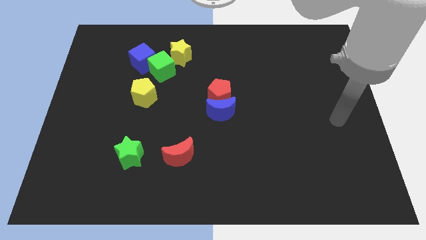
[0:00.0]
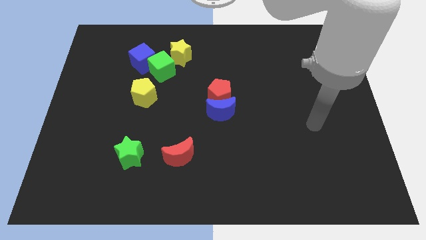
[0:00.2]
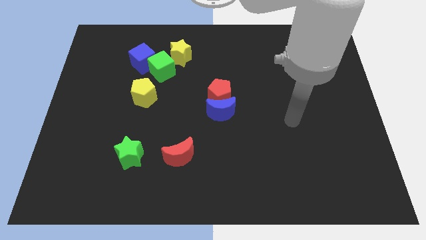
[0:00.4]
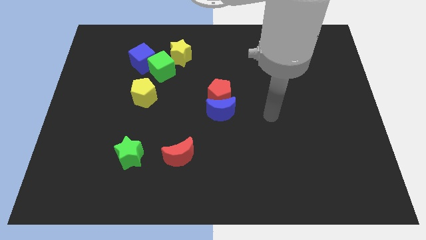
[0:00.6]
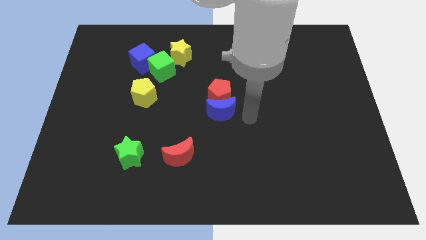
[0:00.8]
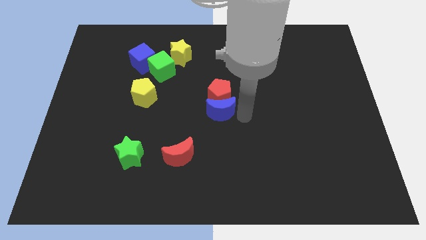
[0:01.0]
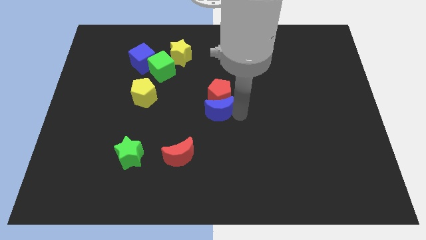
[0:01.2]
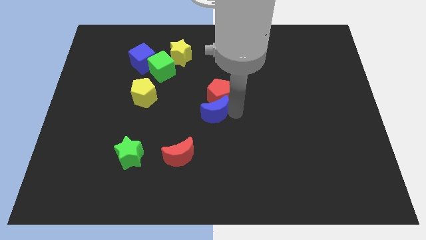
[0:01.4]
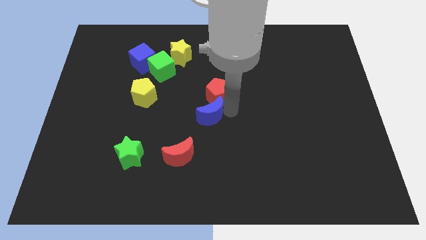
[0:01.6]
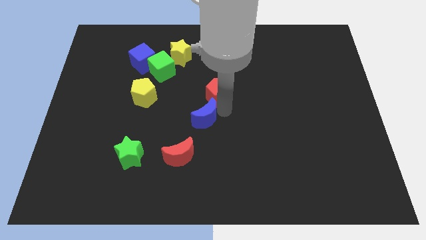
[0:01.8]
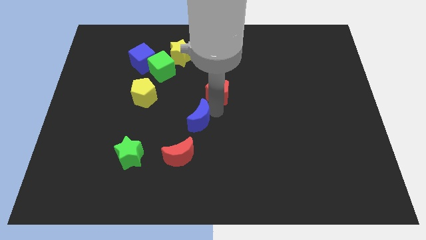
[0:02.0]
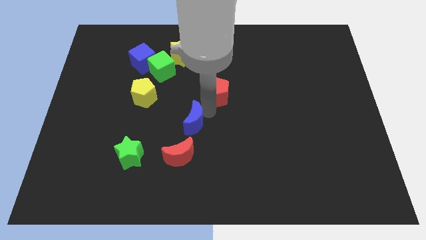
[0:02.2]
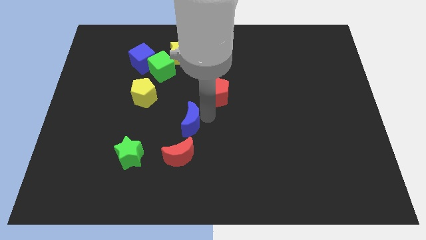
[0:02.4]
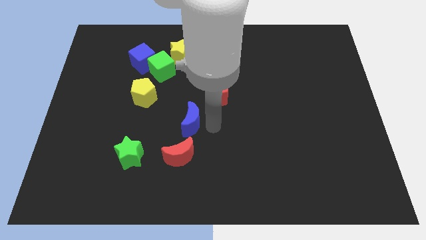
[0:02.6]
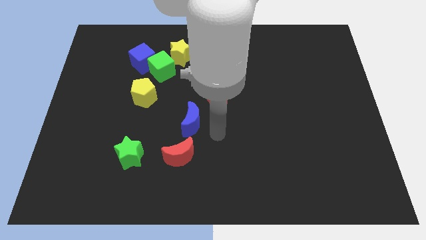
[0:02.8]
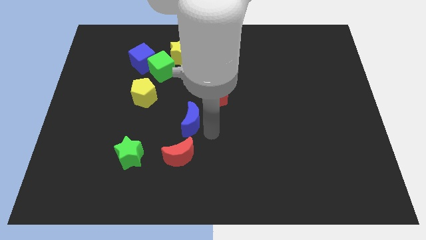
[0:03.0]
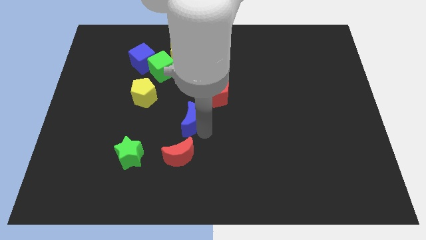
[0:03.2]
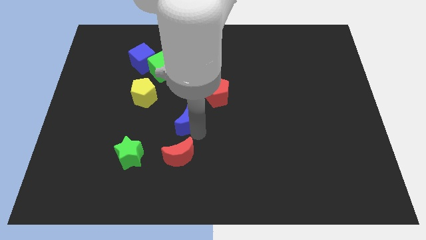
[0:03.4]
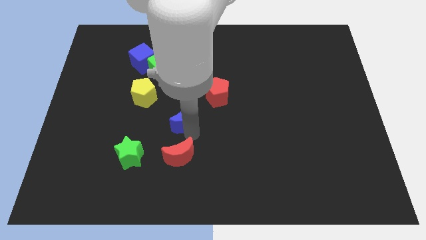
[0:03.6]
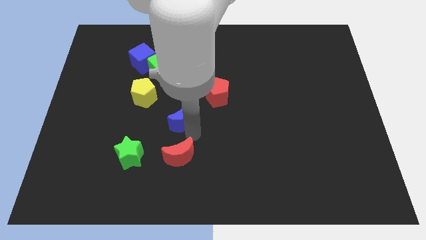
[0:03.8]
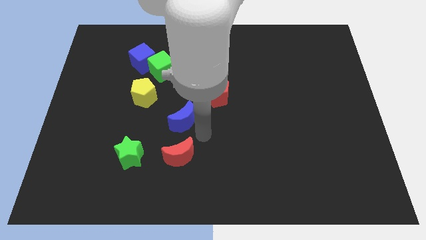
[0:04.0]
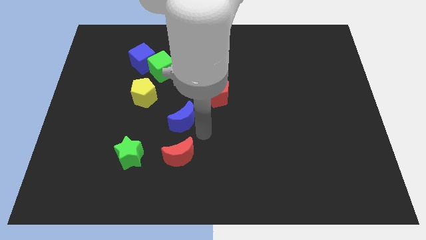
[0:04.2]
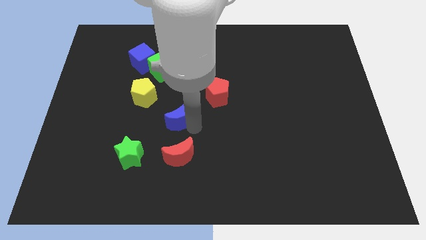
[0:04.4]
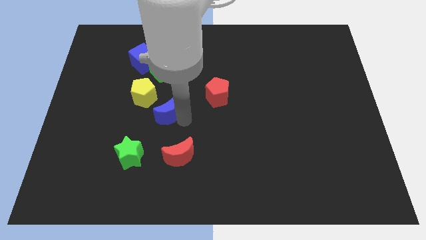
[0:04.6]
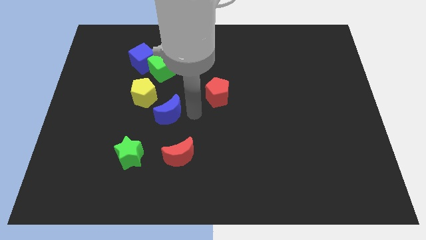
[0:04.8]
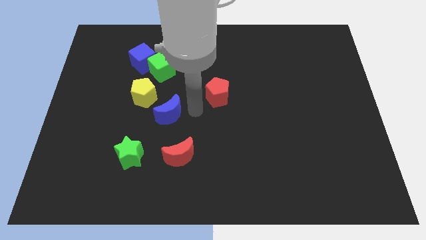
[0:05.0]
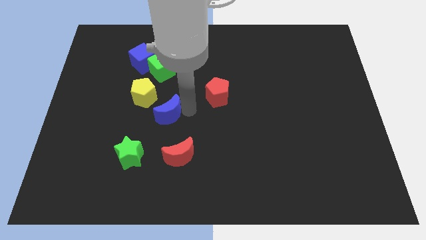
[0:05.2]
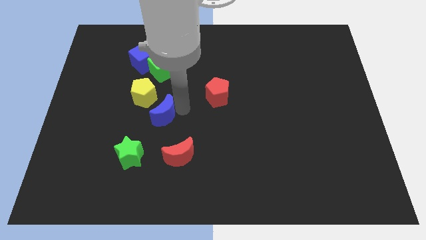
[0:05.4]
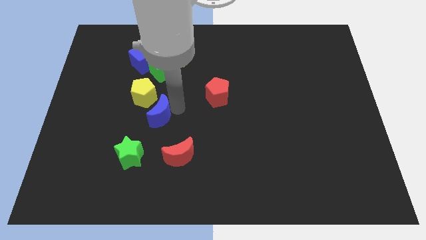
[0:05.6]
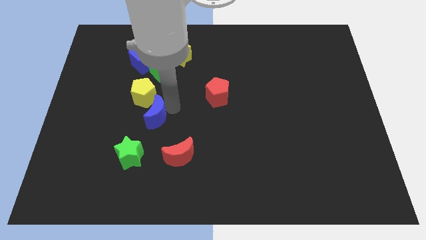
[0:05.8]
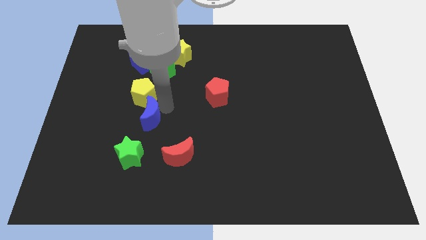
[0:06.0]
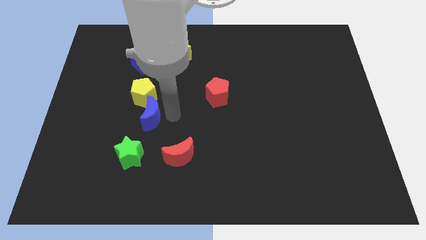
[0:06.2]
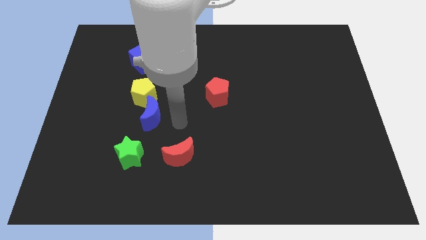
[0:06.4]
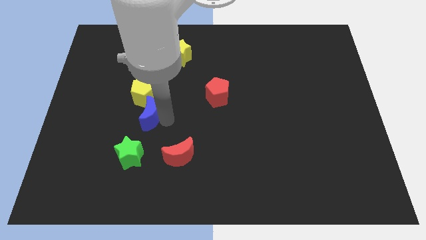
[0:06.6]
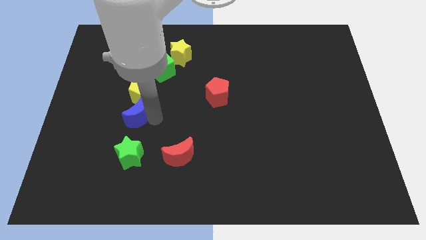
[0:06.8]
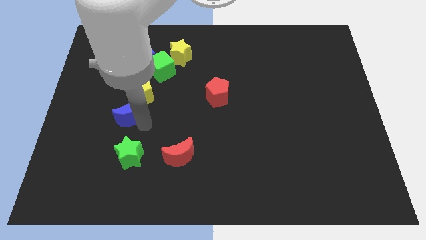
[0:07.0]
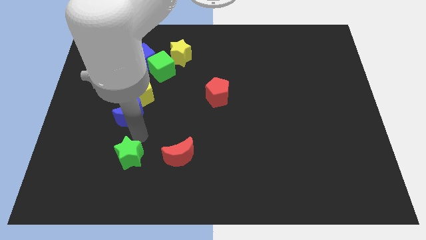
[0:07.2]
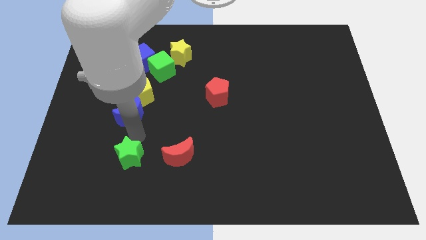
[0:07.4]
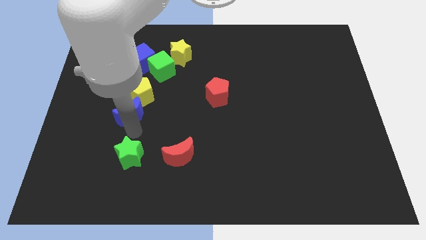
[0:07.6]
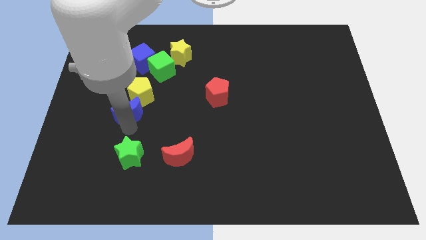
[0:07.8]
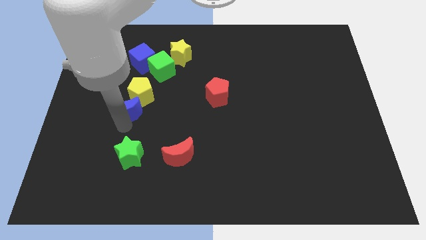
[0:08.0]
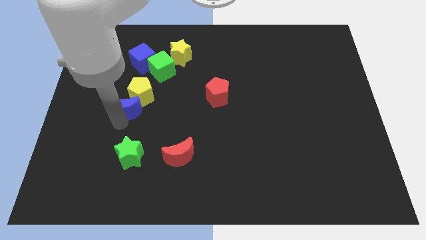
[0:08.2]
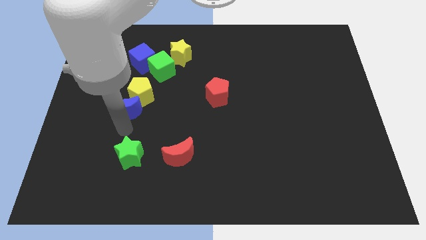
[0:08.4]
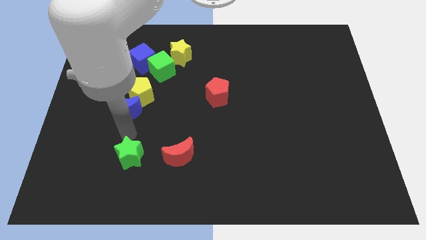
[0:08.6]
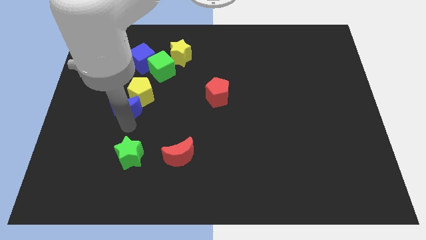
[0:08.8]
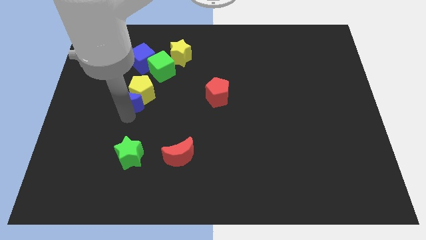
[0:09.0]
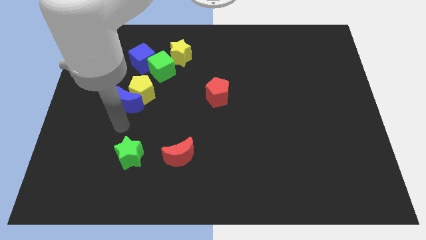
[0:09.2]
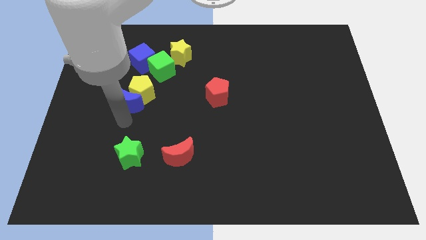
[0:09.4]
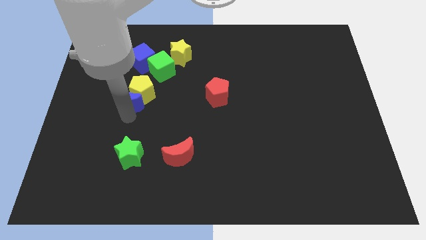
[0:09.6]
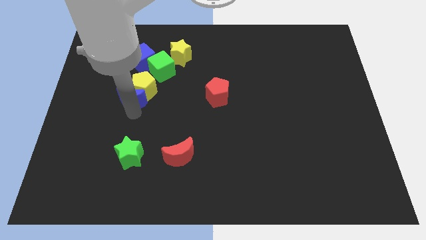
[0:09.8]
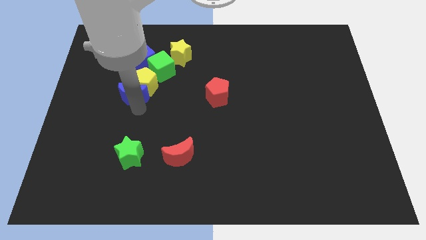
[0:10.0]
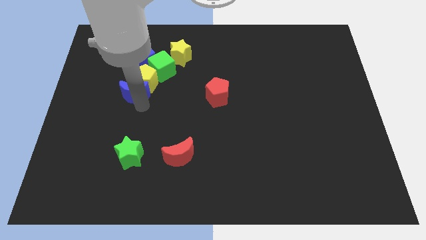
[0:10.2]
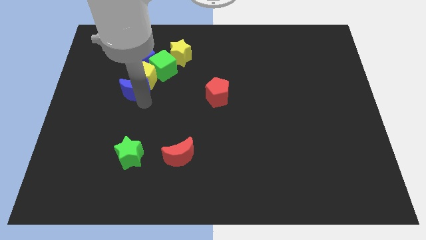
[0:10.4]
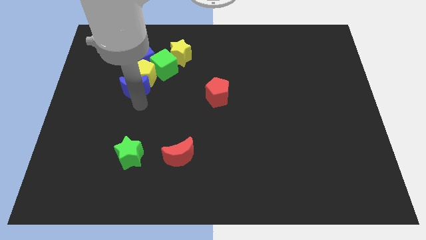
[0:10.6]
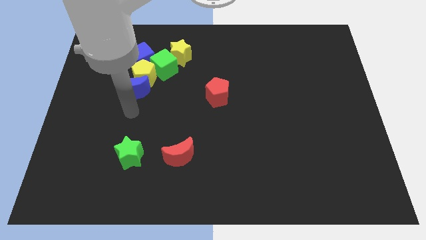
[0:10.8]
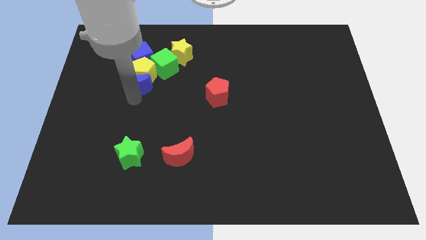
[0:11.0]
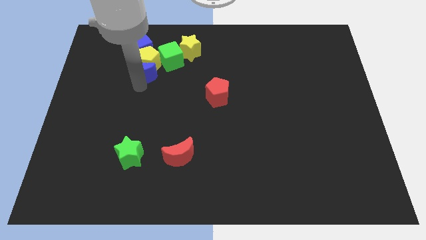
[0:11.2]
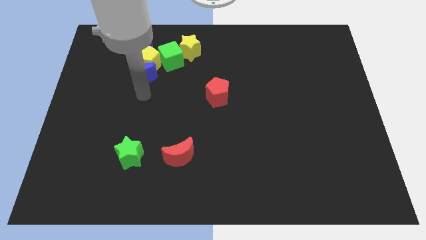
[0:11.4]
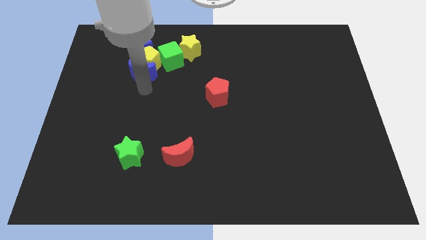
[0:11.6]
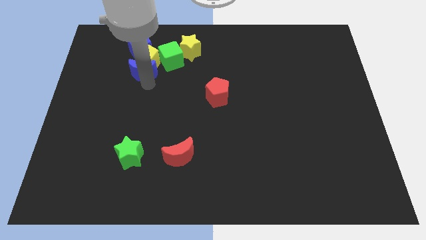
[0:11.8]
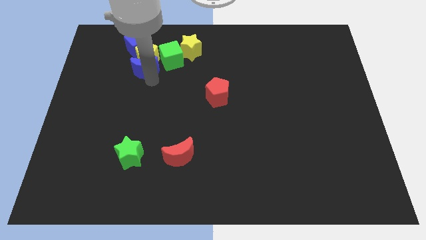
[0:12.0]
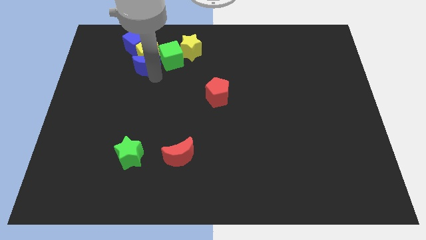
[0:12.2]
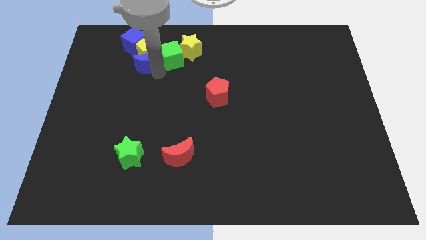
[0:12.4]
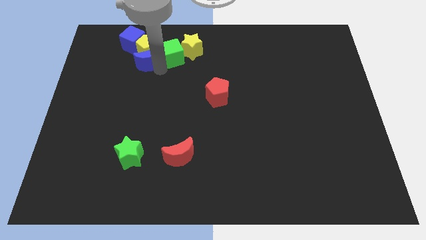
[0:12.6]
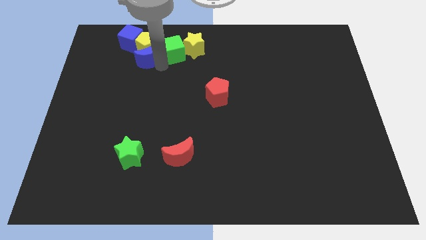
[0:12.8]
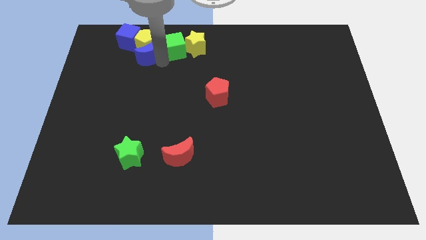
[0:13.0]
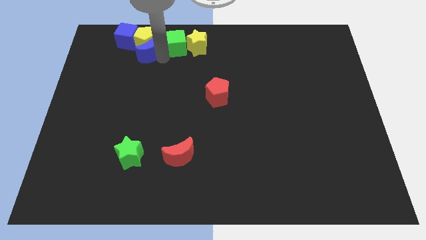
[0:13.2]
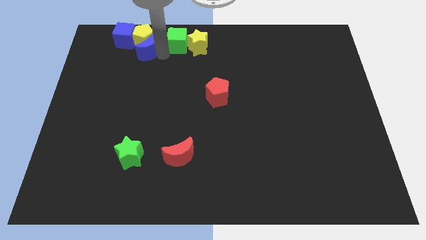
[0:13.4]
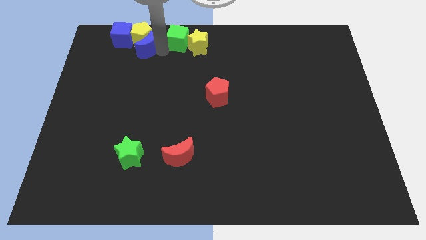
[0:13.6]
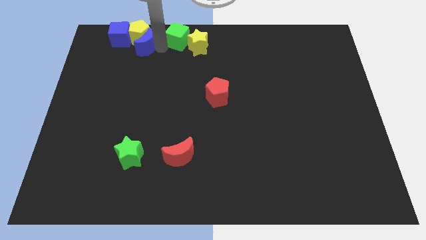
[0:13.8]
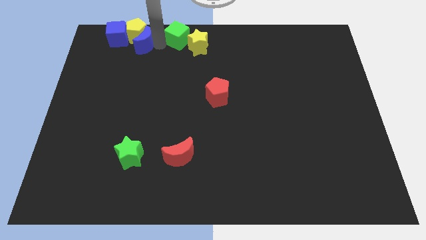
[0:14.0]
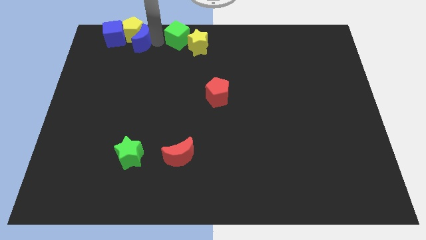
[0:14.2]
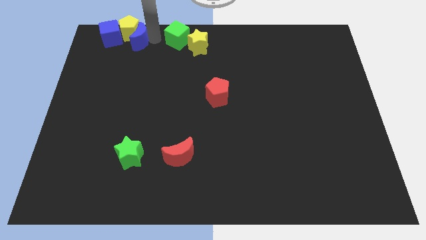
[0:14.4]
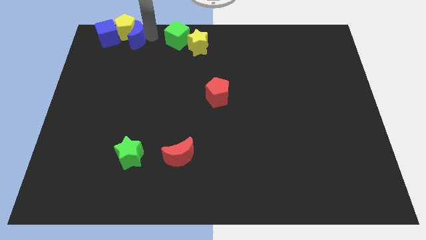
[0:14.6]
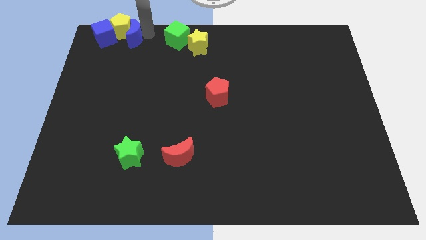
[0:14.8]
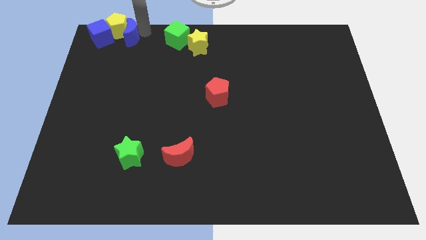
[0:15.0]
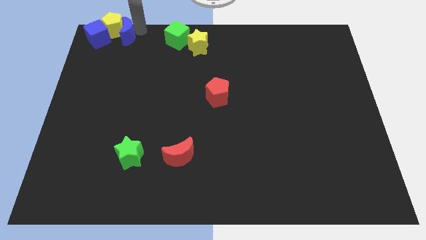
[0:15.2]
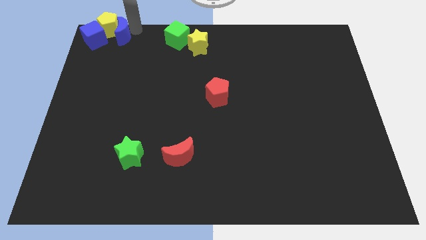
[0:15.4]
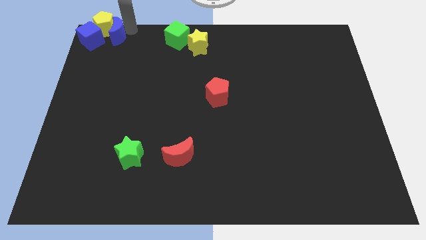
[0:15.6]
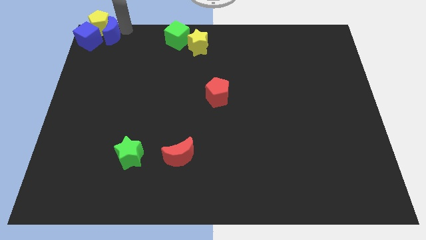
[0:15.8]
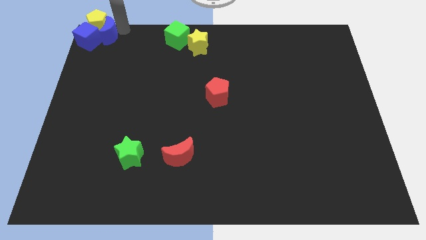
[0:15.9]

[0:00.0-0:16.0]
move the blue moon to the blue cube
